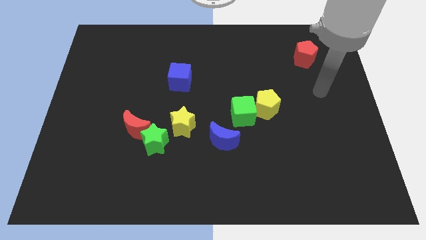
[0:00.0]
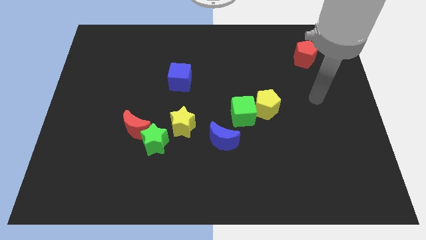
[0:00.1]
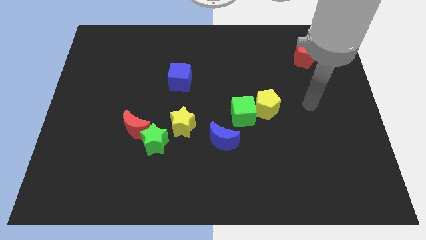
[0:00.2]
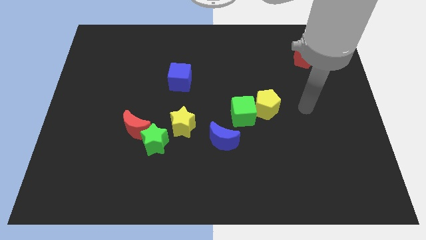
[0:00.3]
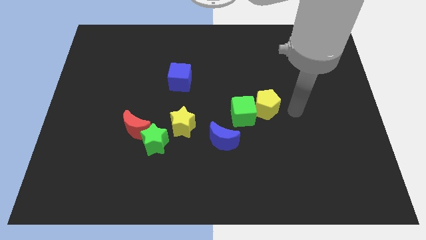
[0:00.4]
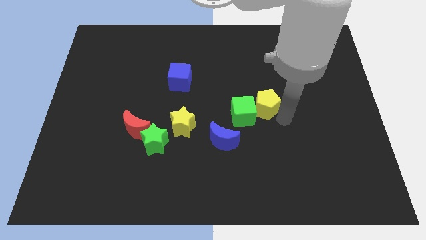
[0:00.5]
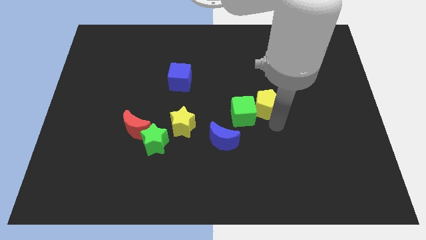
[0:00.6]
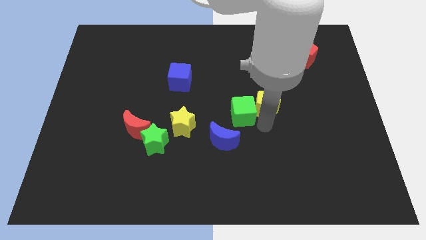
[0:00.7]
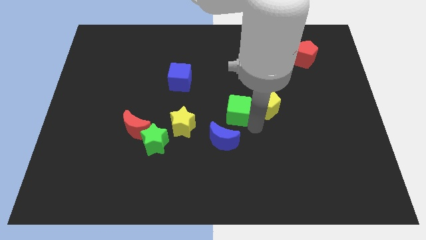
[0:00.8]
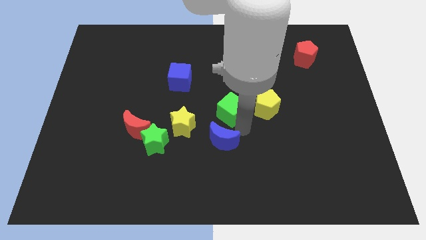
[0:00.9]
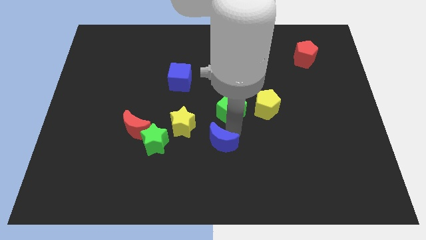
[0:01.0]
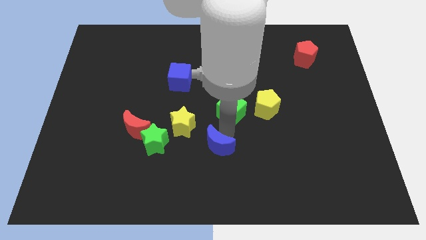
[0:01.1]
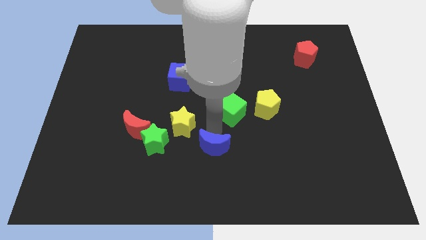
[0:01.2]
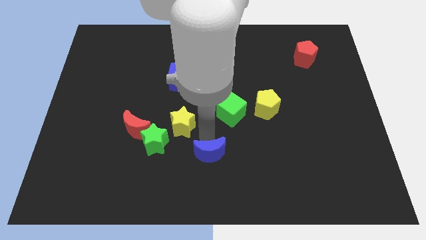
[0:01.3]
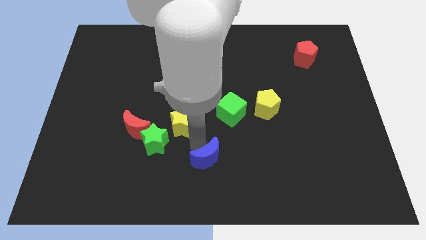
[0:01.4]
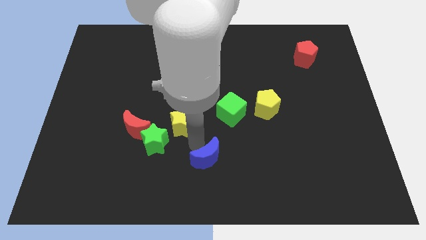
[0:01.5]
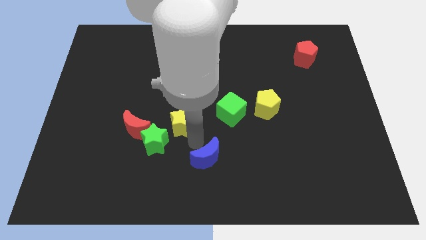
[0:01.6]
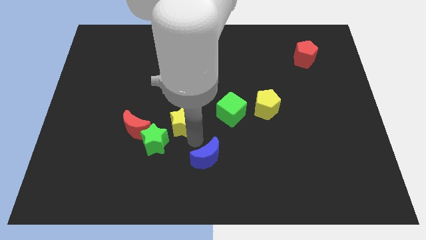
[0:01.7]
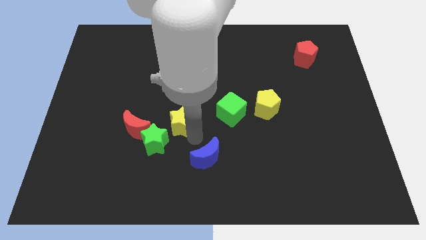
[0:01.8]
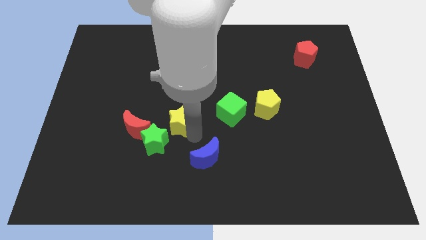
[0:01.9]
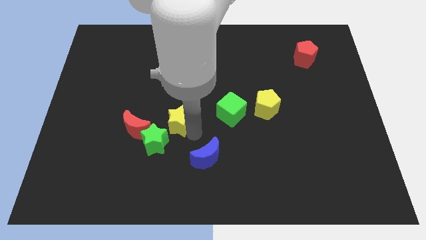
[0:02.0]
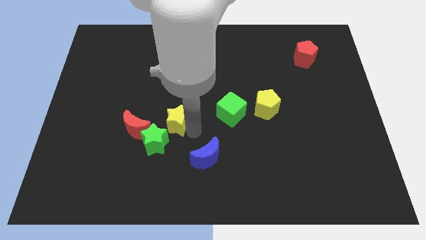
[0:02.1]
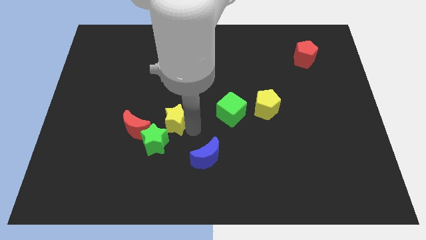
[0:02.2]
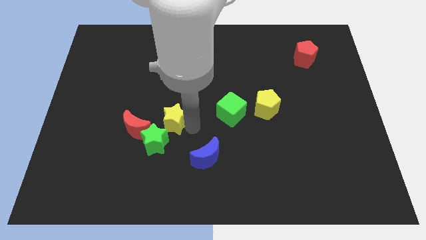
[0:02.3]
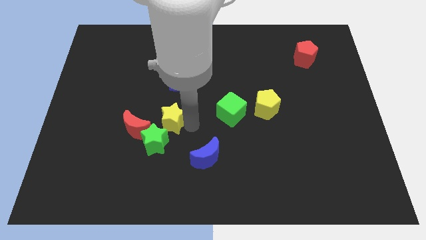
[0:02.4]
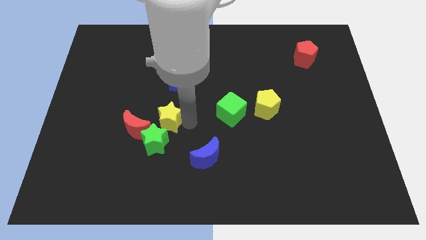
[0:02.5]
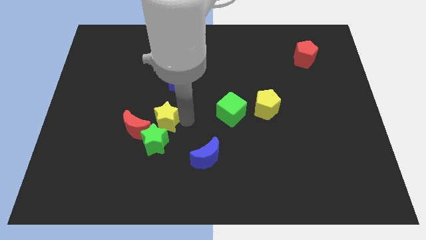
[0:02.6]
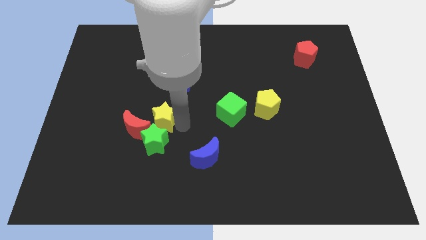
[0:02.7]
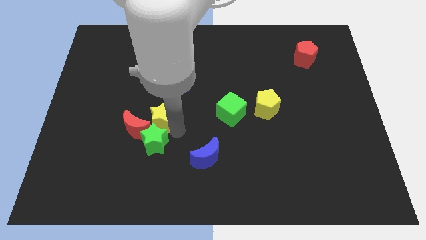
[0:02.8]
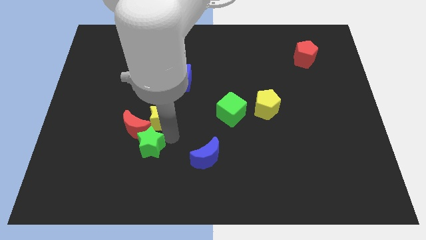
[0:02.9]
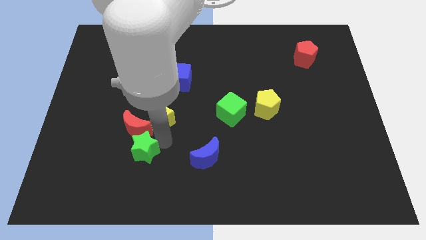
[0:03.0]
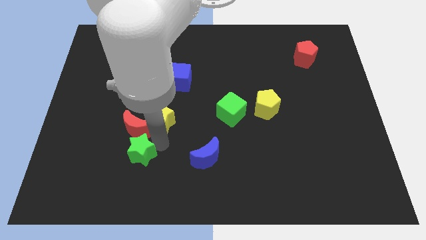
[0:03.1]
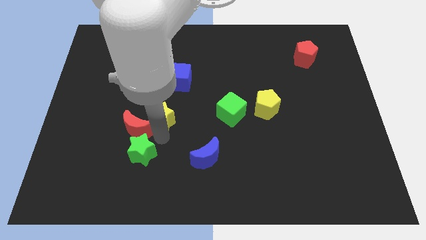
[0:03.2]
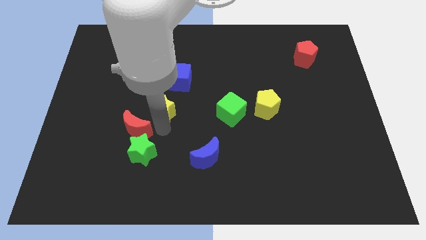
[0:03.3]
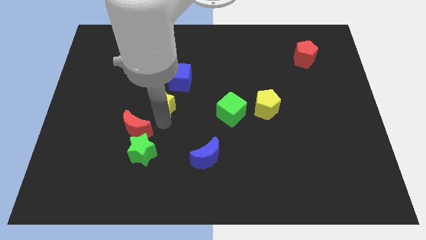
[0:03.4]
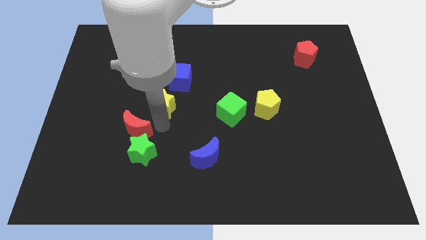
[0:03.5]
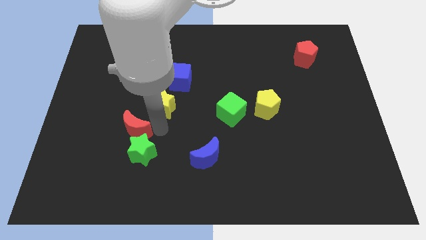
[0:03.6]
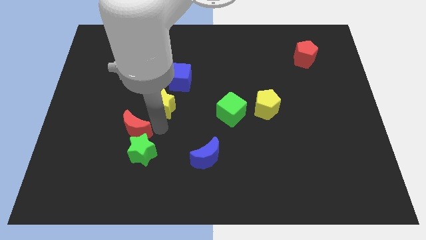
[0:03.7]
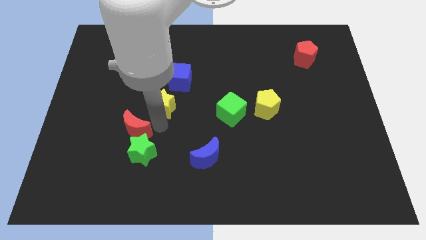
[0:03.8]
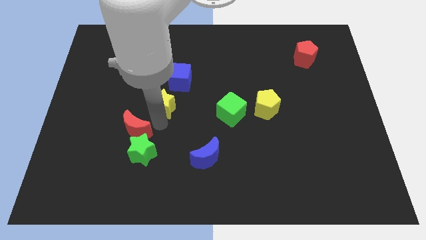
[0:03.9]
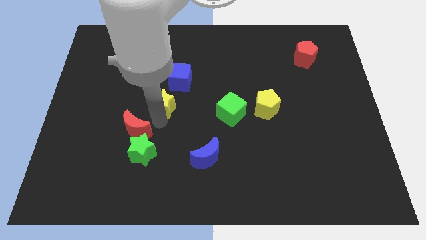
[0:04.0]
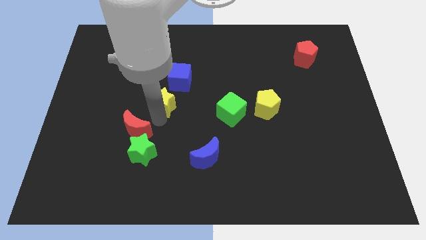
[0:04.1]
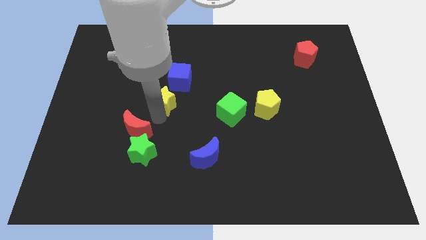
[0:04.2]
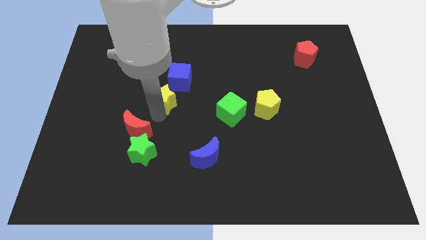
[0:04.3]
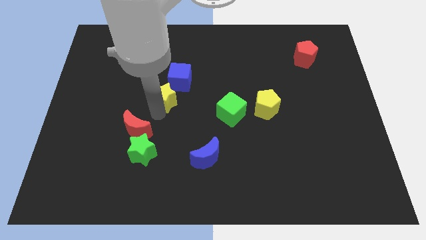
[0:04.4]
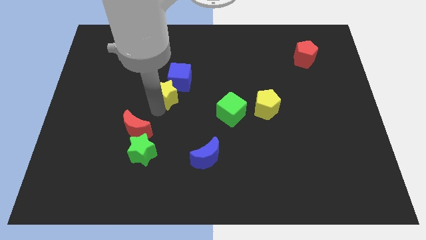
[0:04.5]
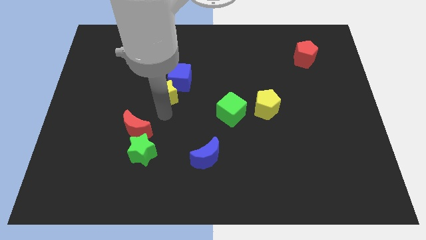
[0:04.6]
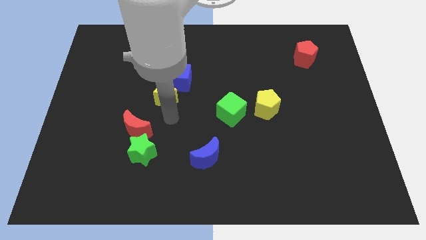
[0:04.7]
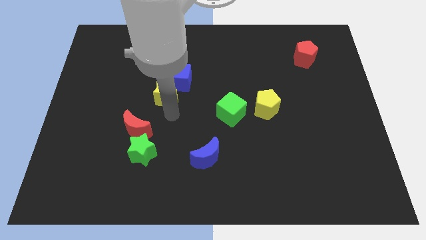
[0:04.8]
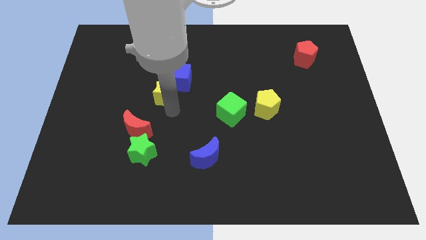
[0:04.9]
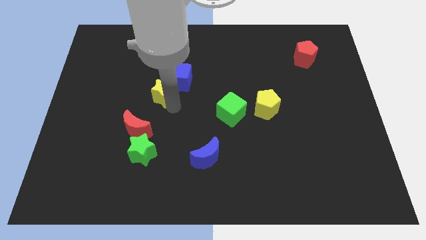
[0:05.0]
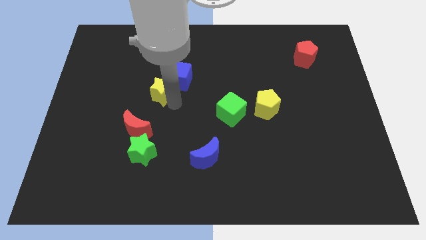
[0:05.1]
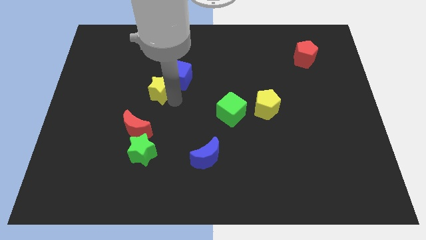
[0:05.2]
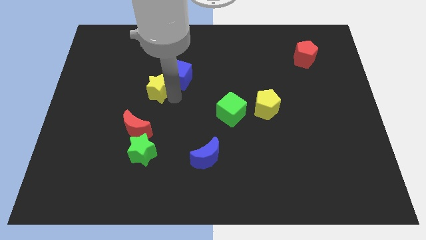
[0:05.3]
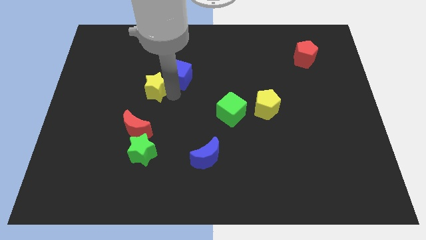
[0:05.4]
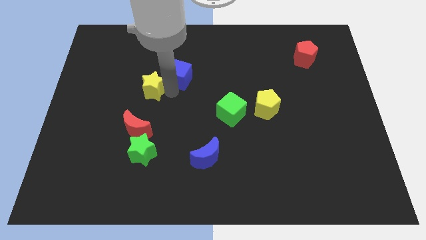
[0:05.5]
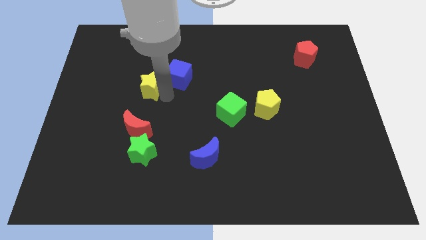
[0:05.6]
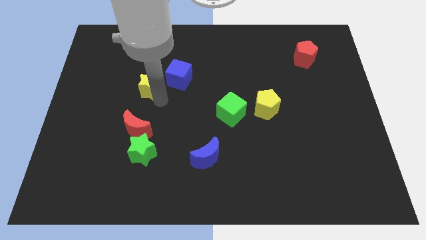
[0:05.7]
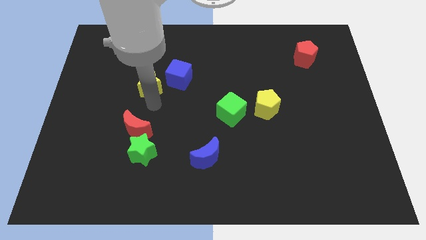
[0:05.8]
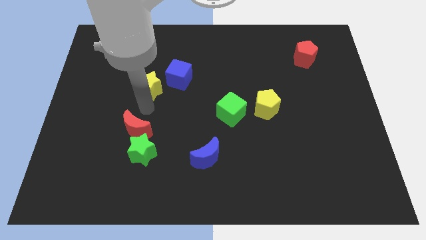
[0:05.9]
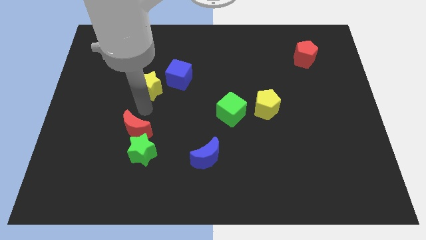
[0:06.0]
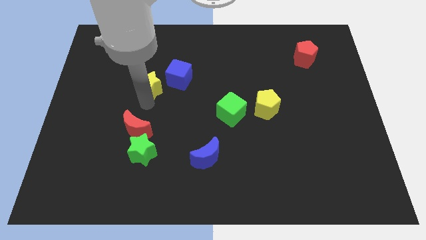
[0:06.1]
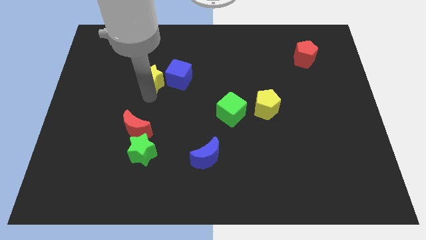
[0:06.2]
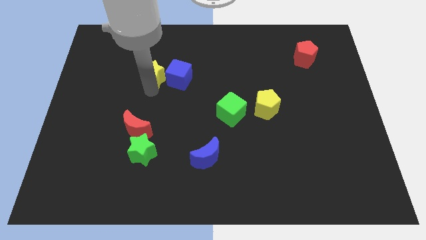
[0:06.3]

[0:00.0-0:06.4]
move the yellow star to the top left side of the blue cube

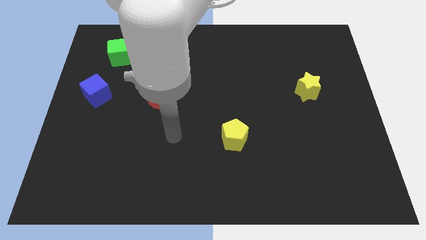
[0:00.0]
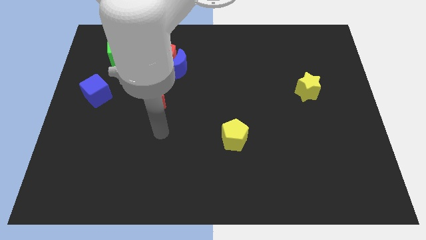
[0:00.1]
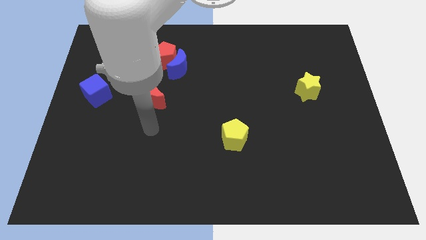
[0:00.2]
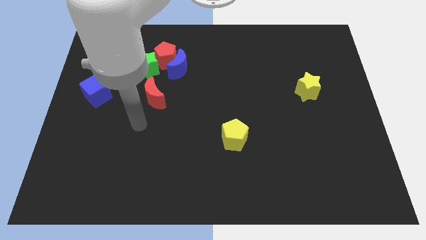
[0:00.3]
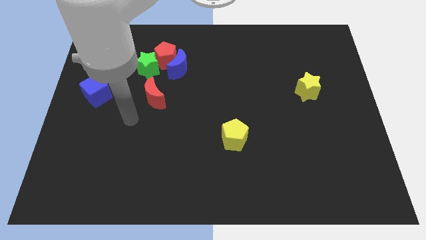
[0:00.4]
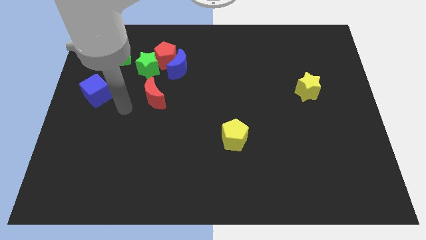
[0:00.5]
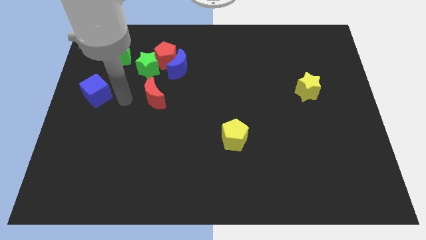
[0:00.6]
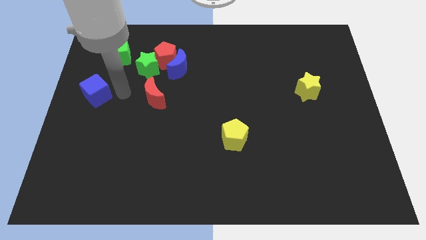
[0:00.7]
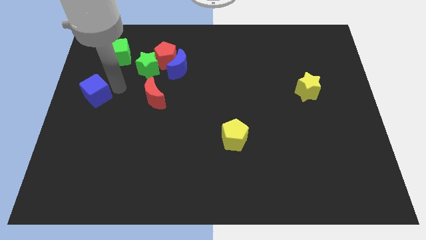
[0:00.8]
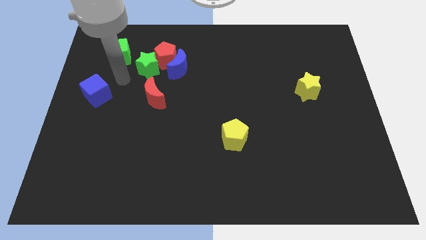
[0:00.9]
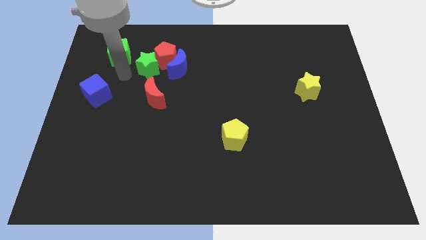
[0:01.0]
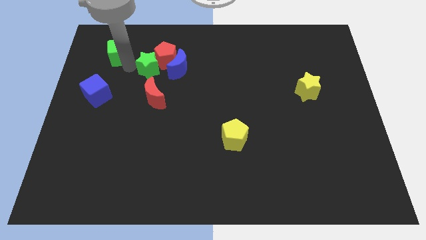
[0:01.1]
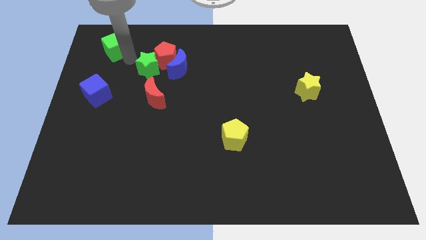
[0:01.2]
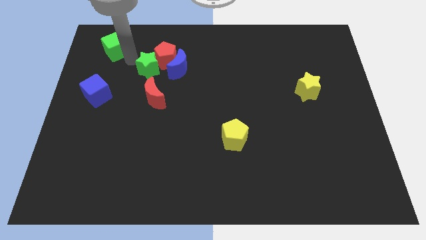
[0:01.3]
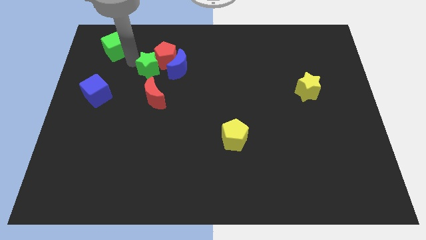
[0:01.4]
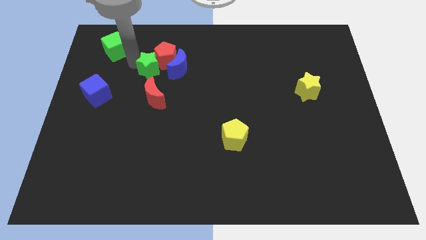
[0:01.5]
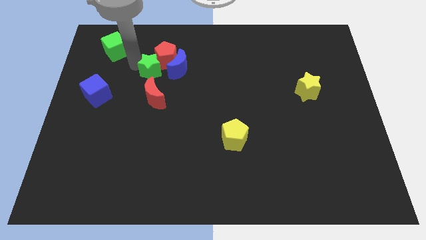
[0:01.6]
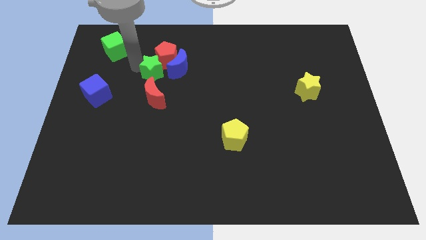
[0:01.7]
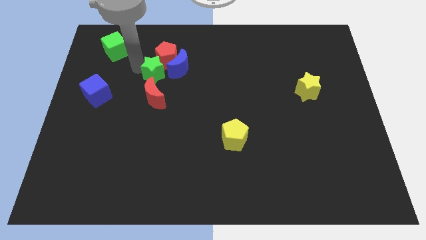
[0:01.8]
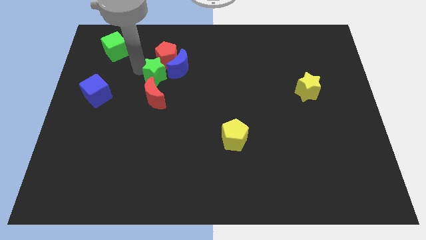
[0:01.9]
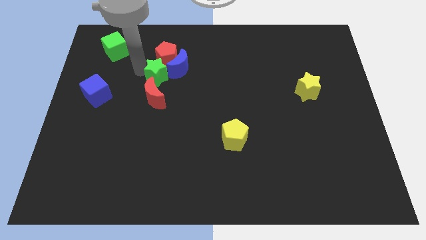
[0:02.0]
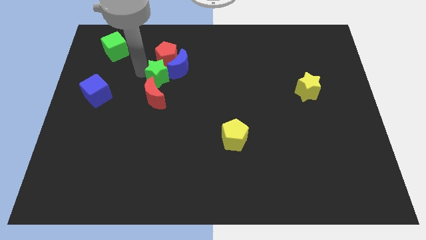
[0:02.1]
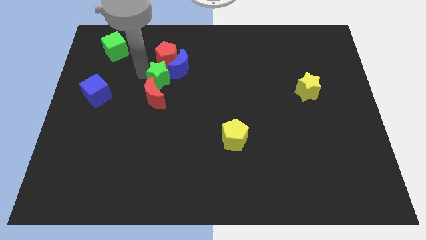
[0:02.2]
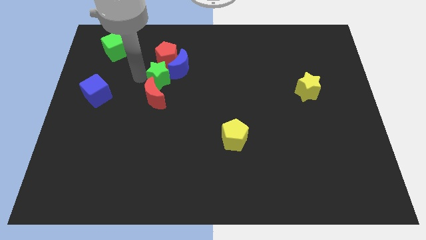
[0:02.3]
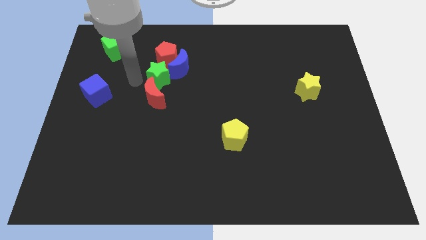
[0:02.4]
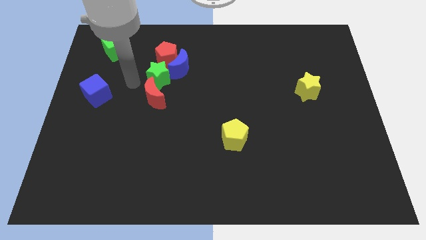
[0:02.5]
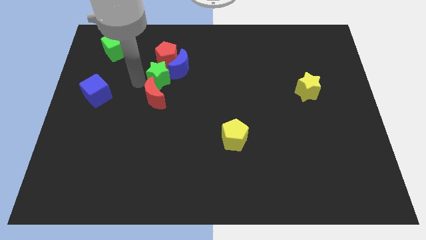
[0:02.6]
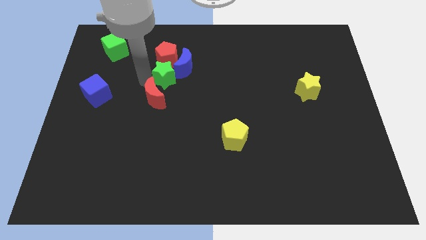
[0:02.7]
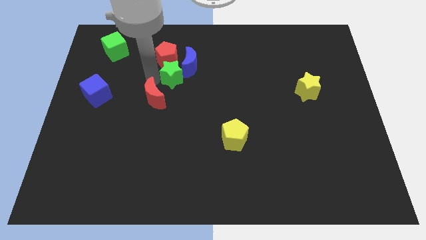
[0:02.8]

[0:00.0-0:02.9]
push the green star diagonally down and to the right of the red pentagon
